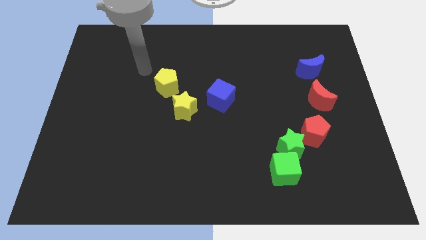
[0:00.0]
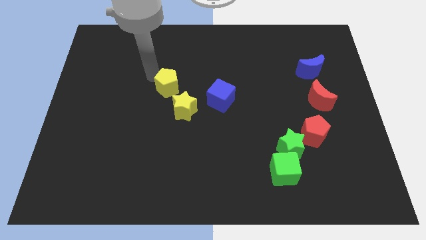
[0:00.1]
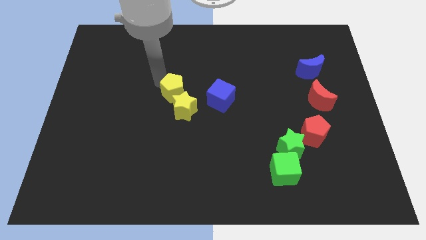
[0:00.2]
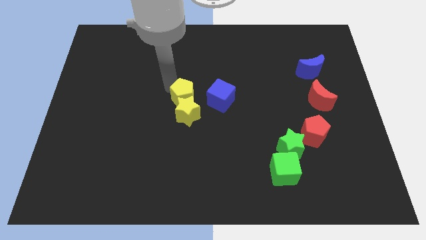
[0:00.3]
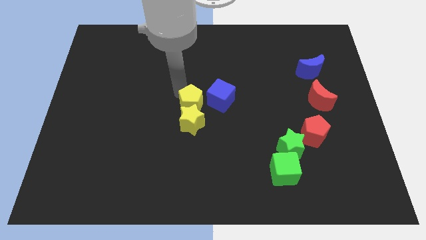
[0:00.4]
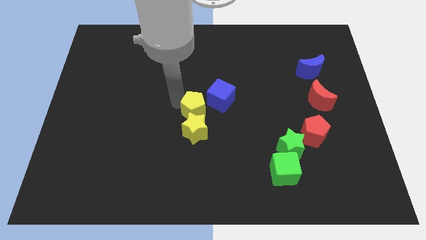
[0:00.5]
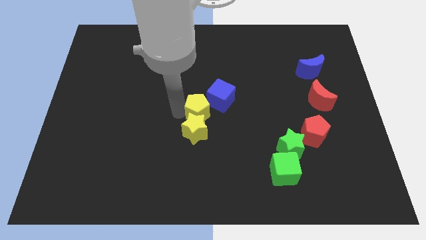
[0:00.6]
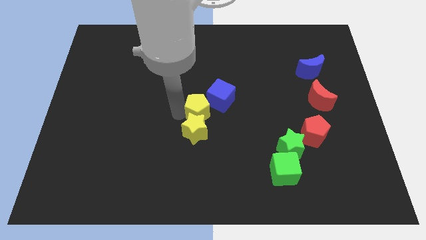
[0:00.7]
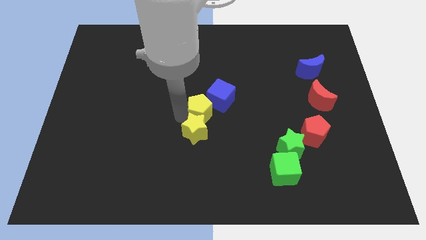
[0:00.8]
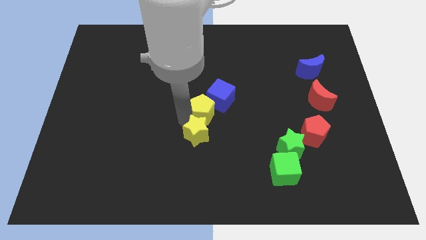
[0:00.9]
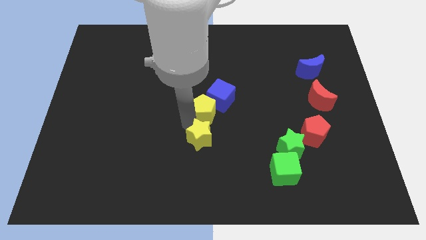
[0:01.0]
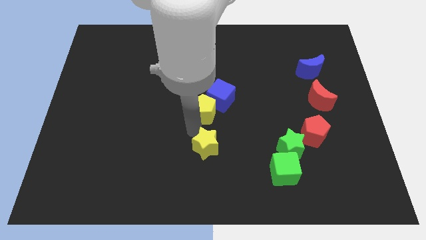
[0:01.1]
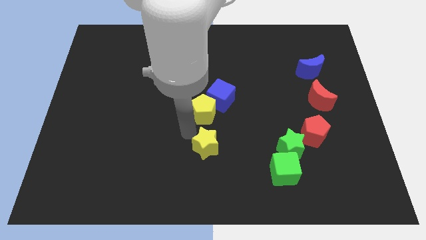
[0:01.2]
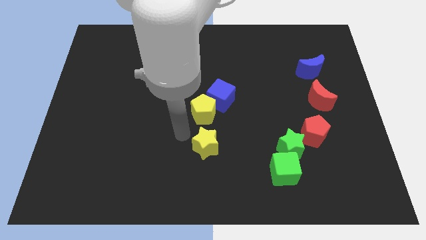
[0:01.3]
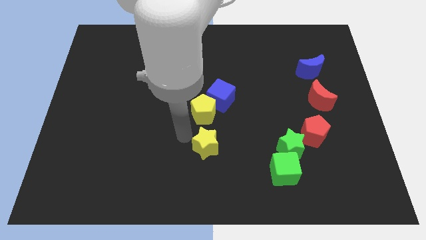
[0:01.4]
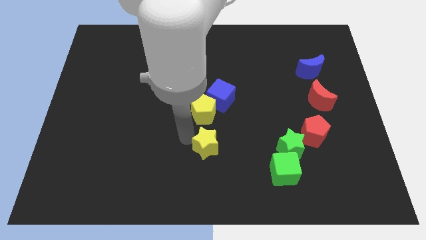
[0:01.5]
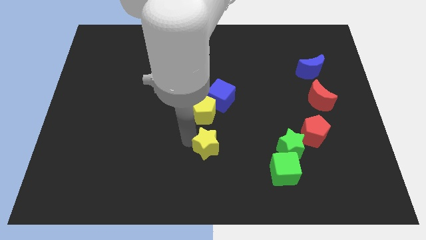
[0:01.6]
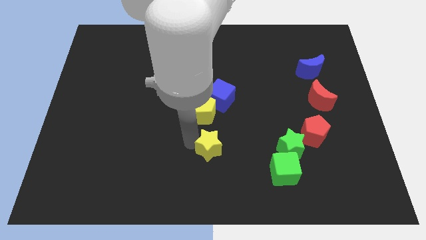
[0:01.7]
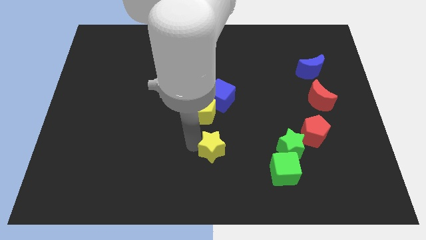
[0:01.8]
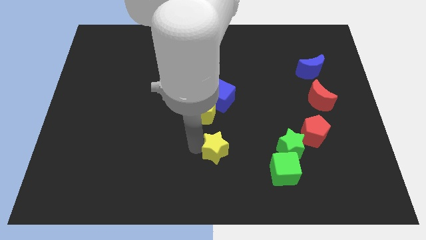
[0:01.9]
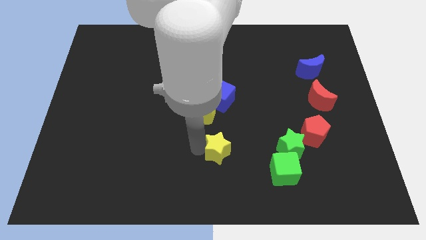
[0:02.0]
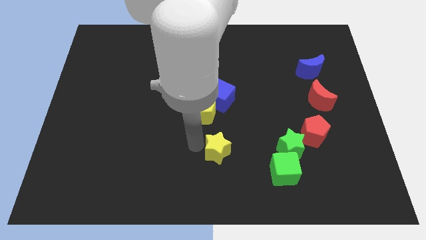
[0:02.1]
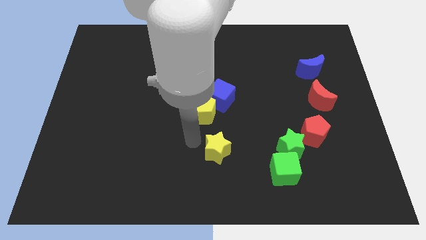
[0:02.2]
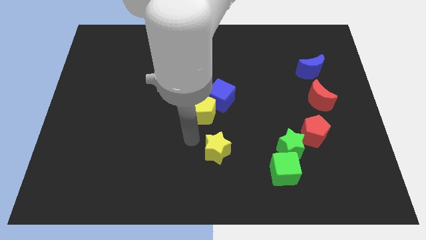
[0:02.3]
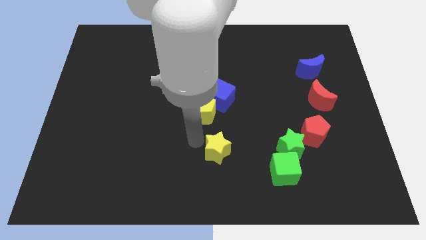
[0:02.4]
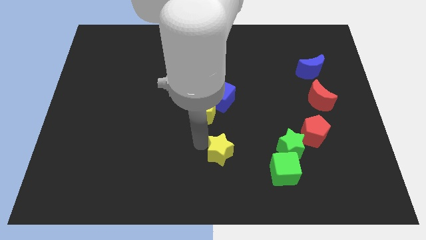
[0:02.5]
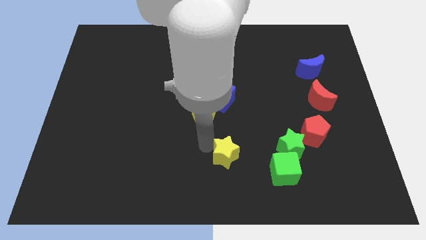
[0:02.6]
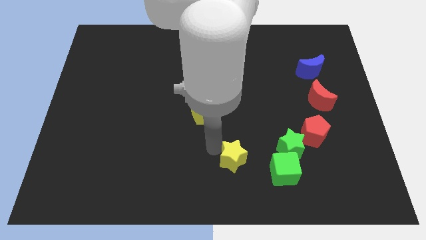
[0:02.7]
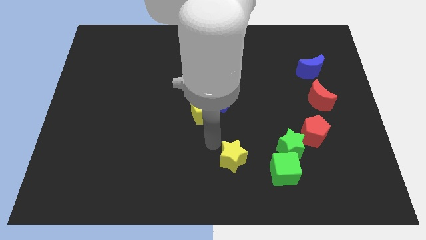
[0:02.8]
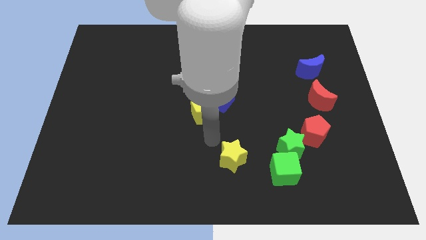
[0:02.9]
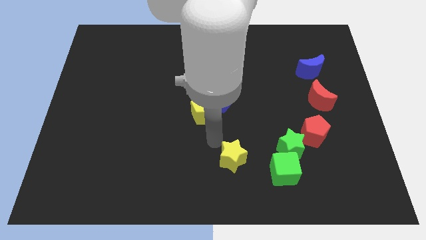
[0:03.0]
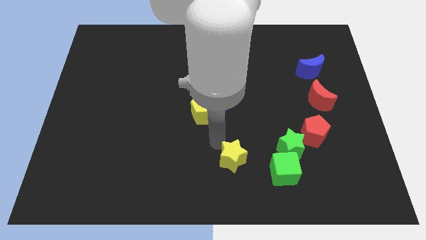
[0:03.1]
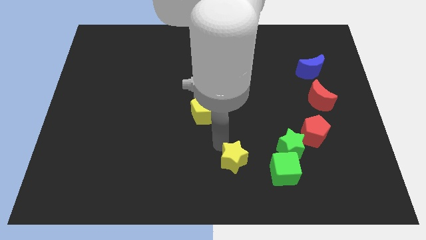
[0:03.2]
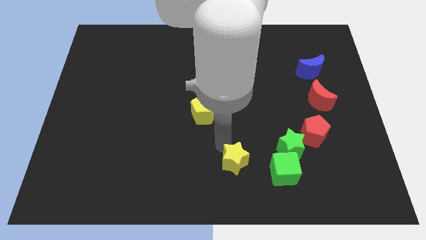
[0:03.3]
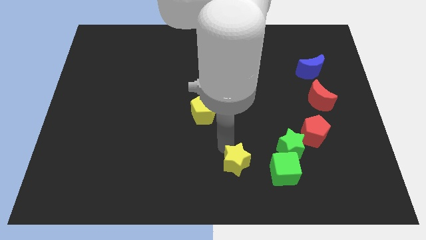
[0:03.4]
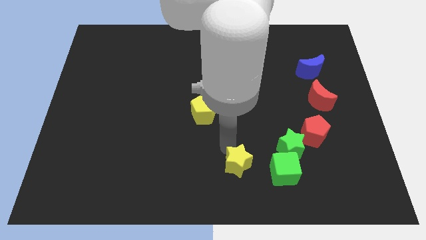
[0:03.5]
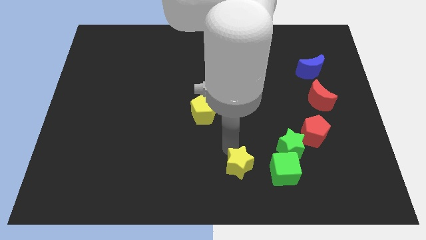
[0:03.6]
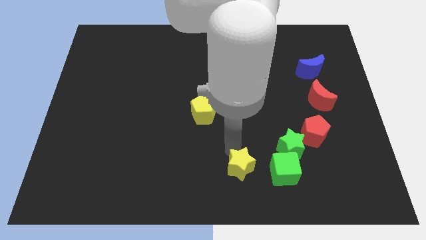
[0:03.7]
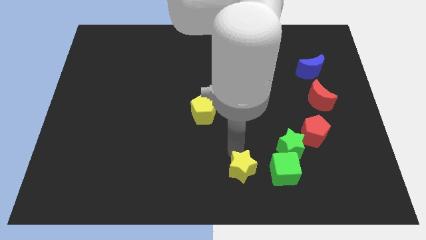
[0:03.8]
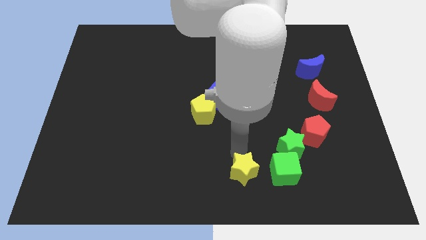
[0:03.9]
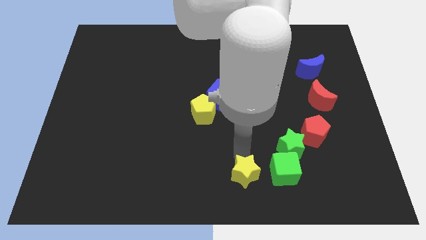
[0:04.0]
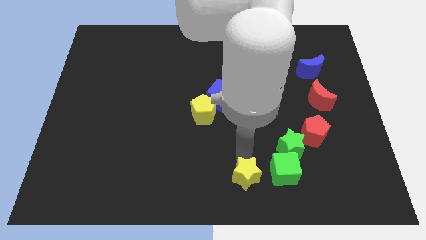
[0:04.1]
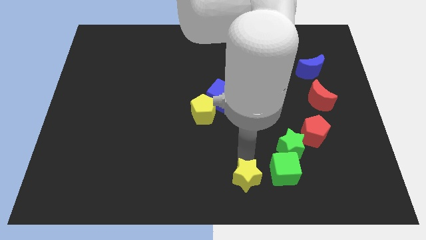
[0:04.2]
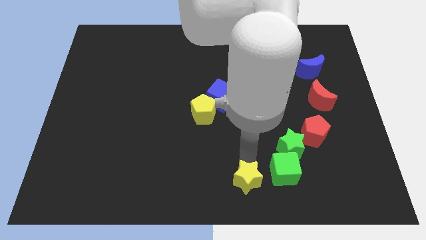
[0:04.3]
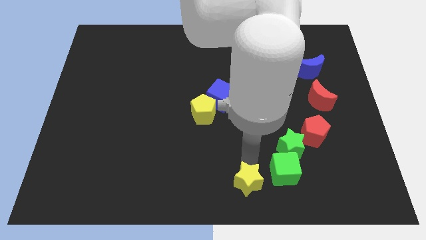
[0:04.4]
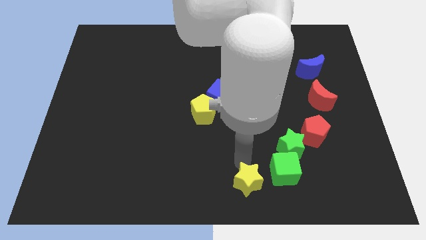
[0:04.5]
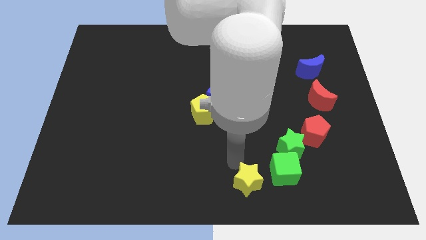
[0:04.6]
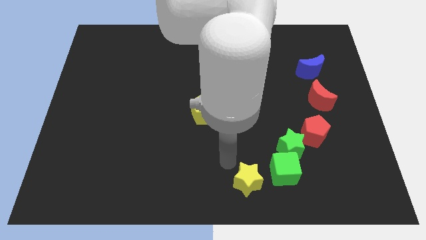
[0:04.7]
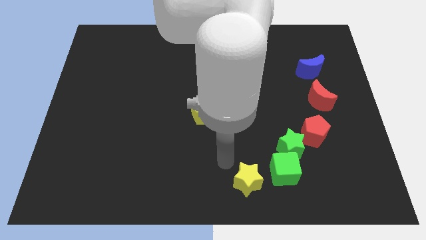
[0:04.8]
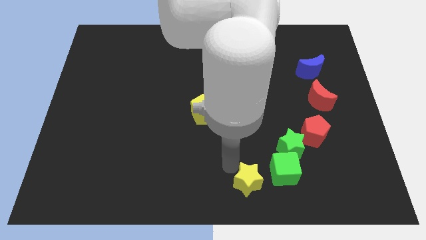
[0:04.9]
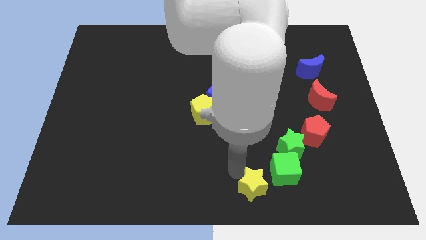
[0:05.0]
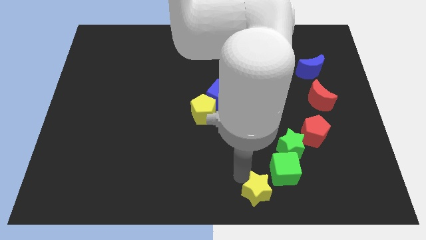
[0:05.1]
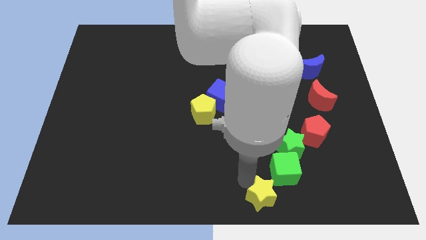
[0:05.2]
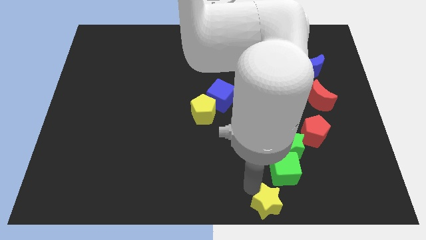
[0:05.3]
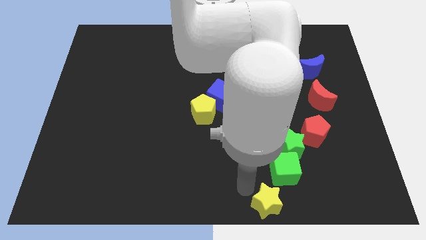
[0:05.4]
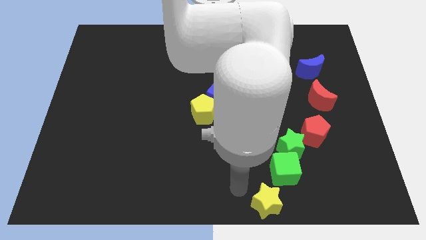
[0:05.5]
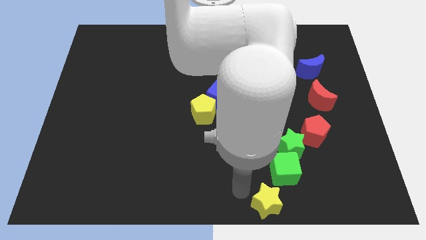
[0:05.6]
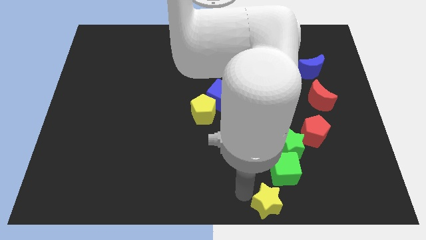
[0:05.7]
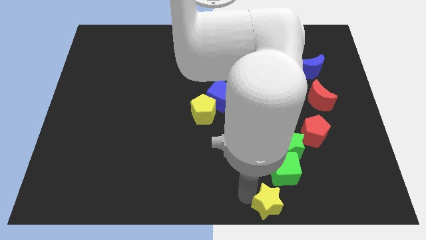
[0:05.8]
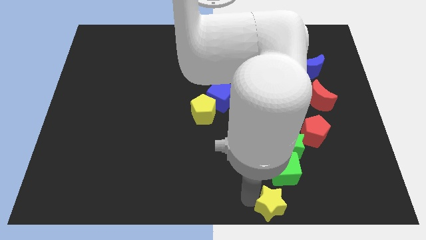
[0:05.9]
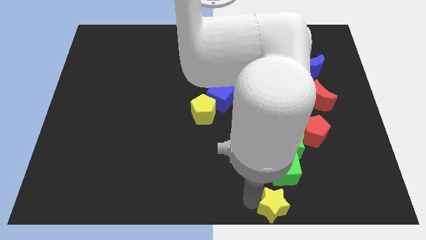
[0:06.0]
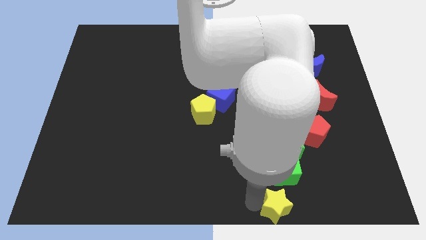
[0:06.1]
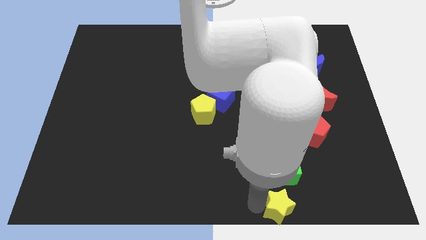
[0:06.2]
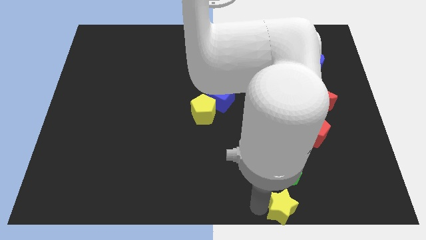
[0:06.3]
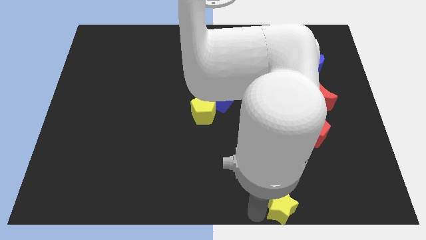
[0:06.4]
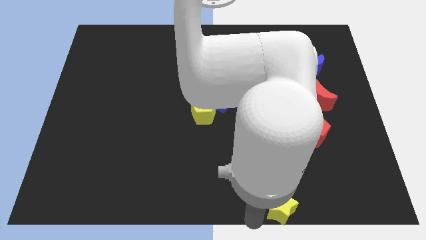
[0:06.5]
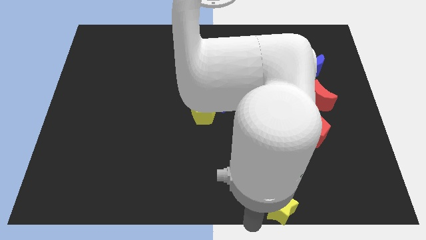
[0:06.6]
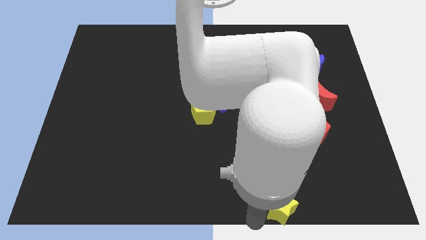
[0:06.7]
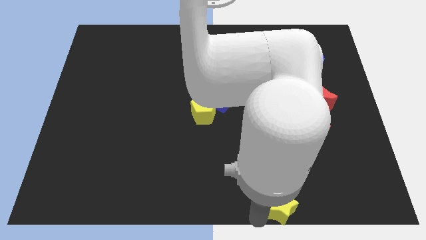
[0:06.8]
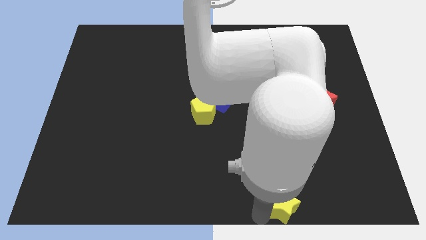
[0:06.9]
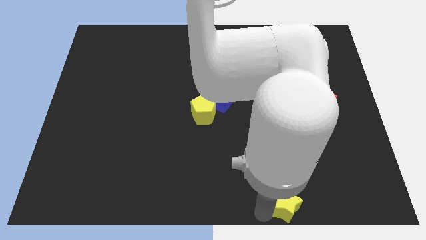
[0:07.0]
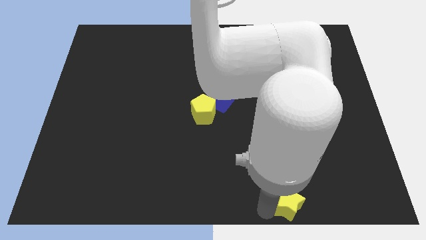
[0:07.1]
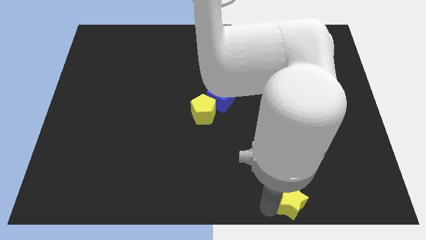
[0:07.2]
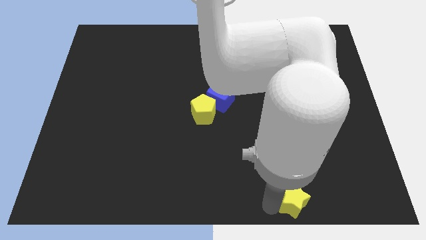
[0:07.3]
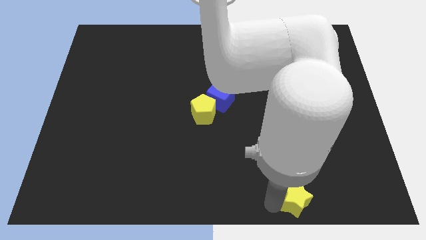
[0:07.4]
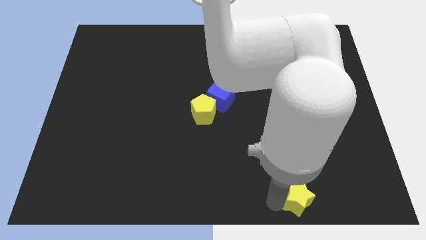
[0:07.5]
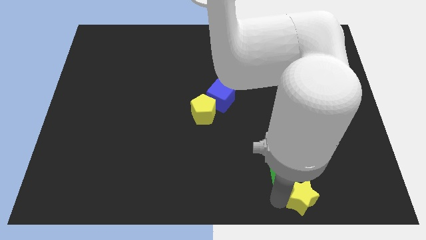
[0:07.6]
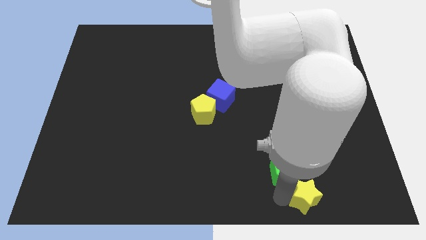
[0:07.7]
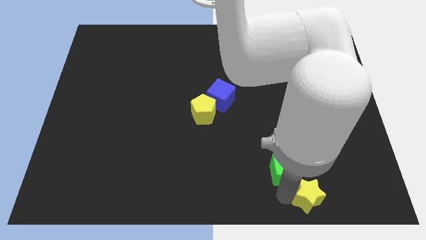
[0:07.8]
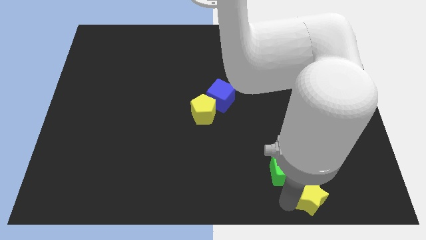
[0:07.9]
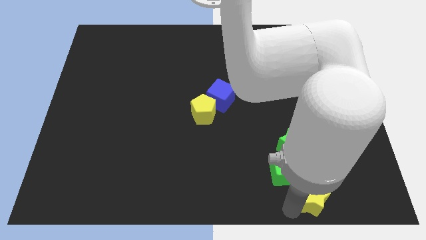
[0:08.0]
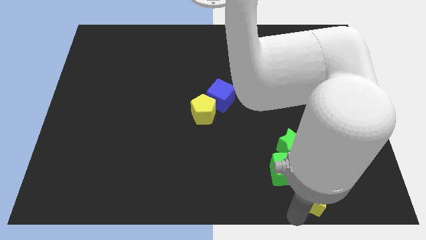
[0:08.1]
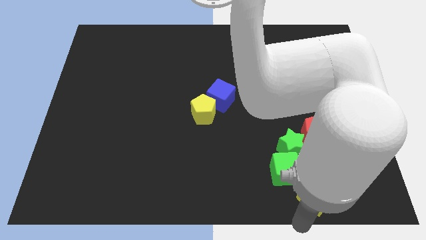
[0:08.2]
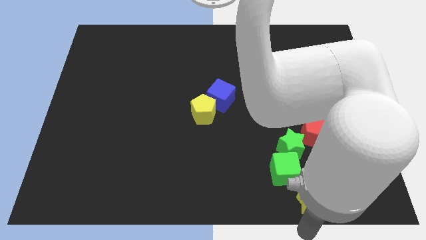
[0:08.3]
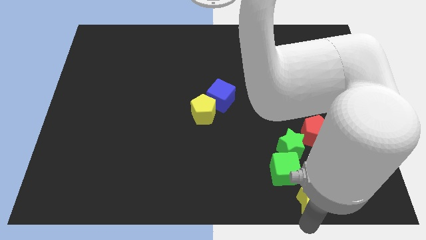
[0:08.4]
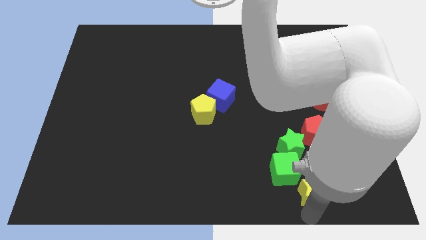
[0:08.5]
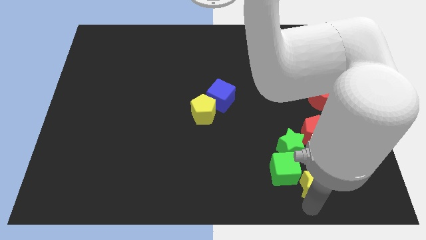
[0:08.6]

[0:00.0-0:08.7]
move the yellow star diagonally down and to the right of the green star
